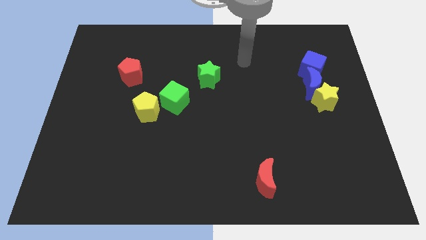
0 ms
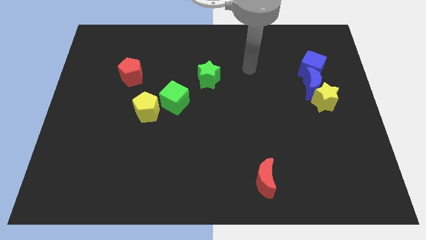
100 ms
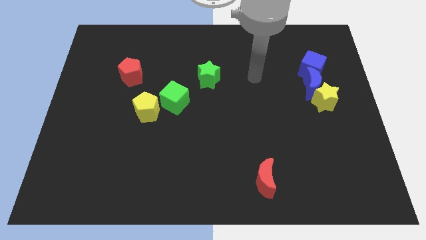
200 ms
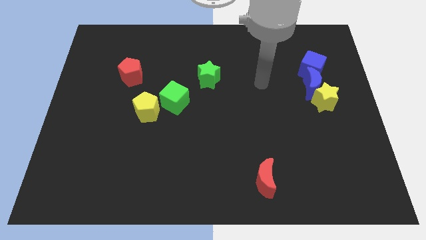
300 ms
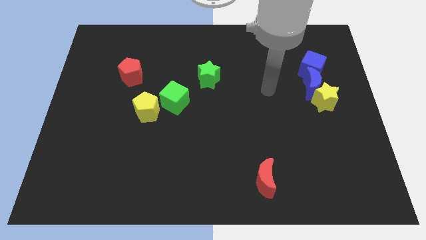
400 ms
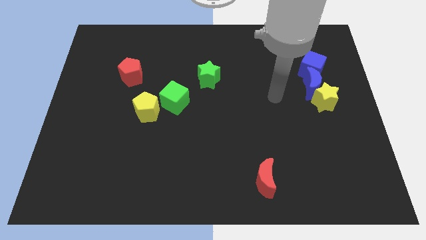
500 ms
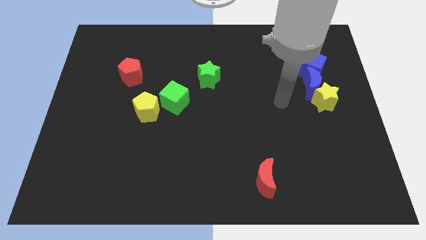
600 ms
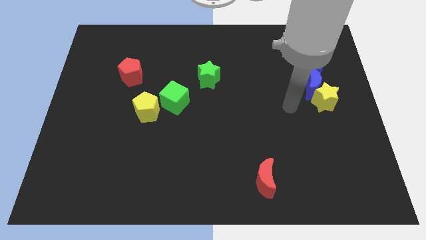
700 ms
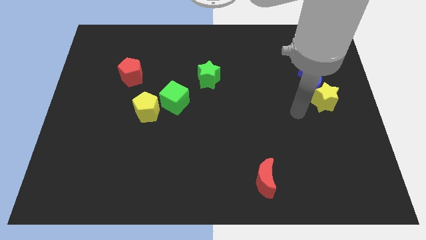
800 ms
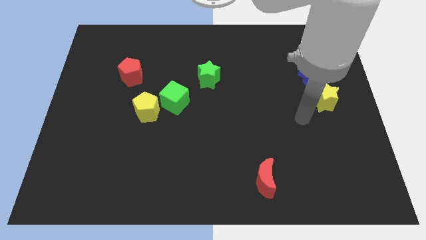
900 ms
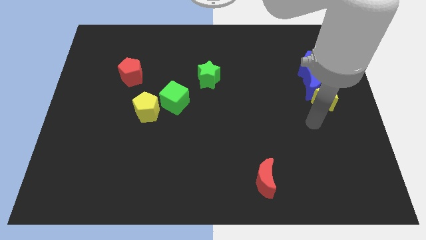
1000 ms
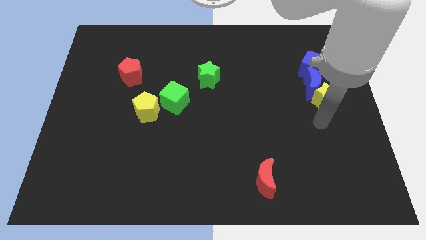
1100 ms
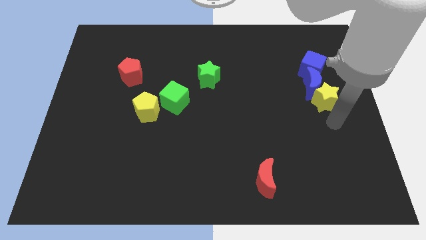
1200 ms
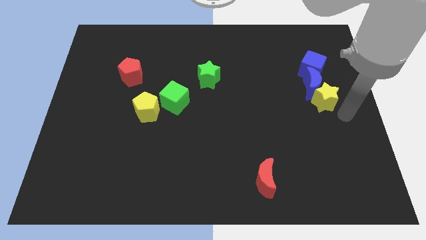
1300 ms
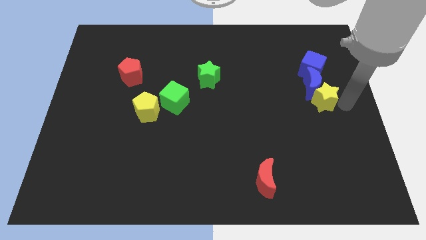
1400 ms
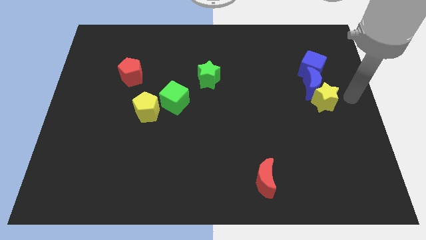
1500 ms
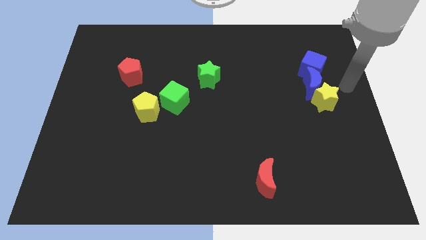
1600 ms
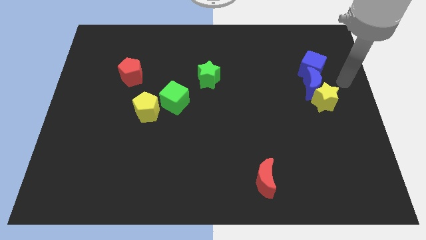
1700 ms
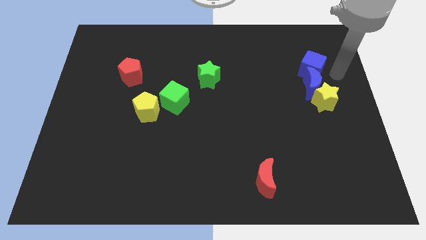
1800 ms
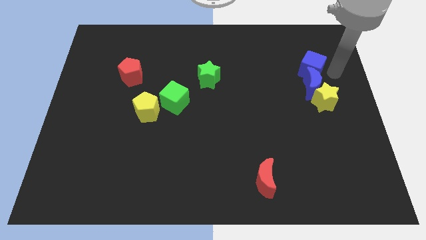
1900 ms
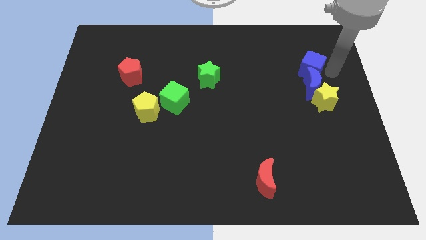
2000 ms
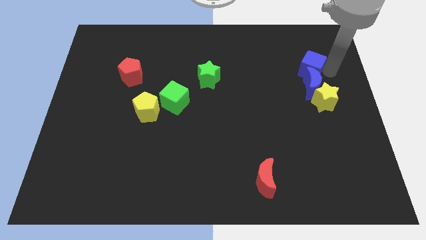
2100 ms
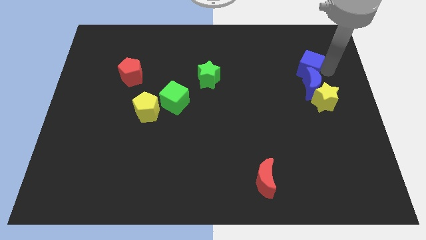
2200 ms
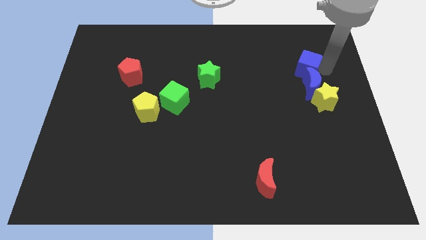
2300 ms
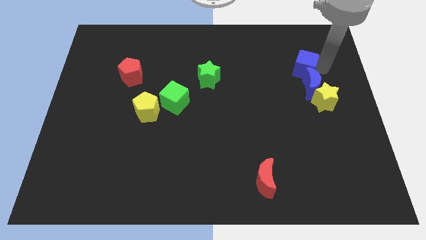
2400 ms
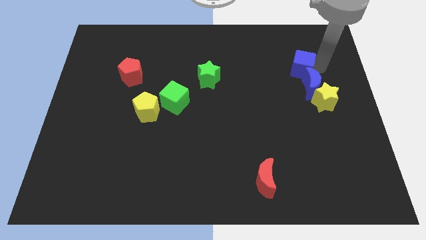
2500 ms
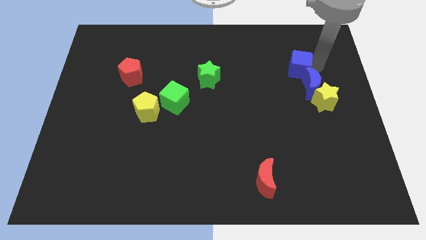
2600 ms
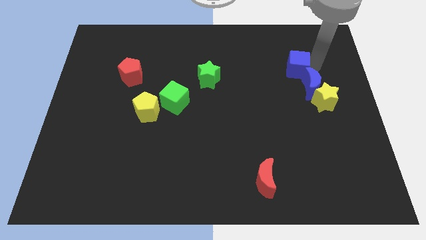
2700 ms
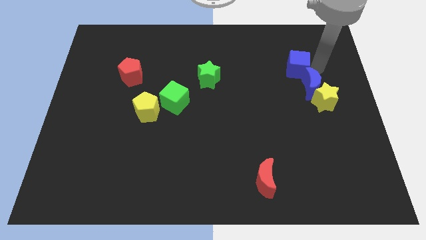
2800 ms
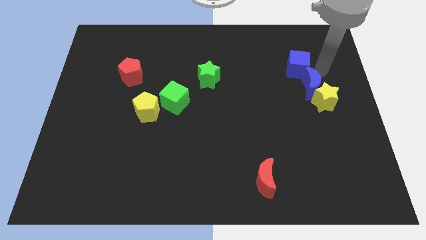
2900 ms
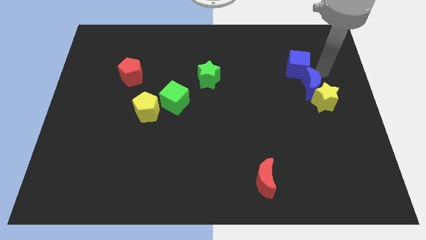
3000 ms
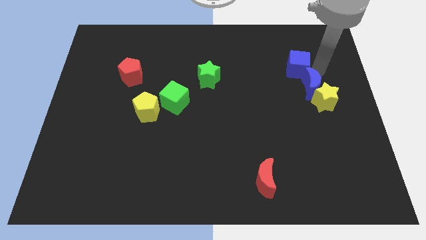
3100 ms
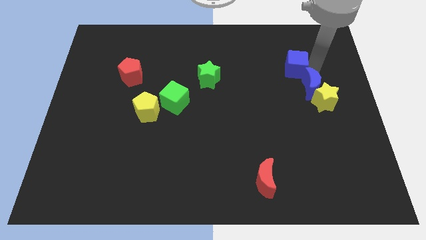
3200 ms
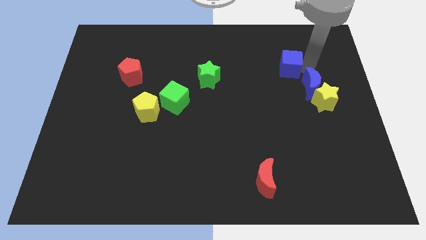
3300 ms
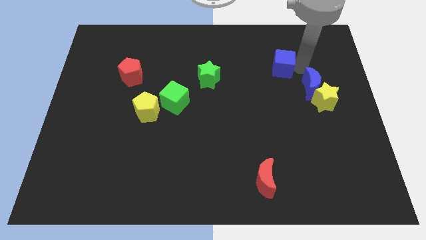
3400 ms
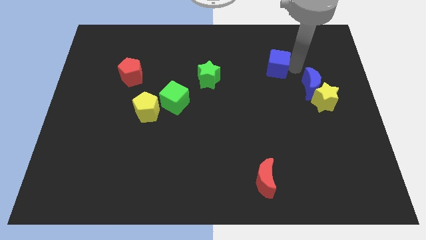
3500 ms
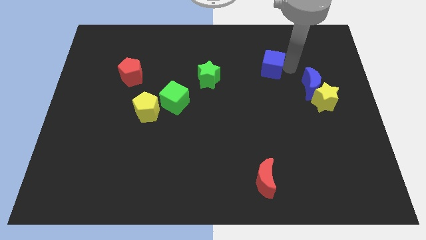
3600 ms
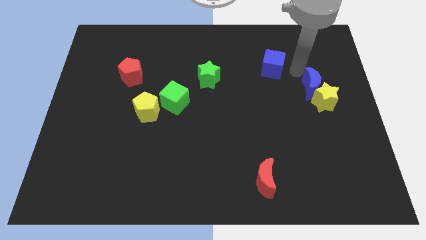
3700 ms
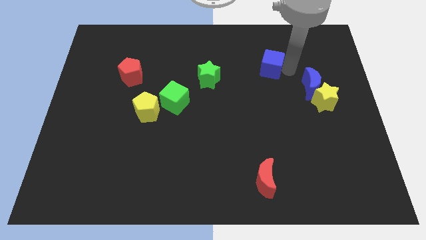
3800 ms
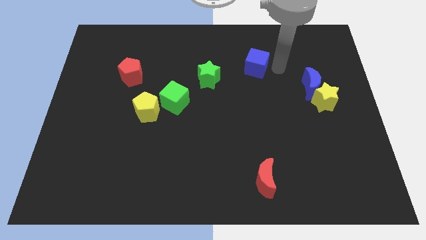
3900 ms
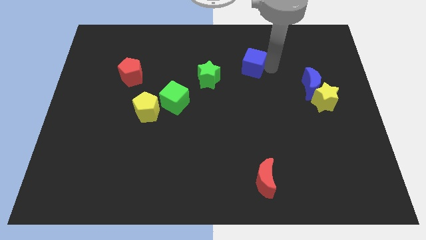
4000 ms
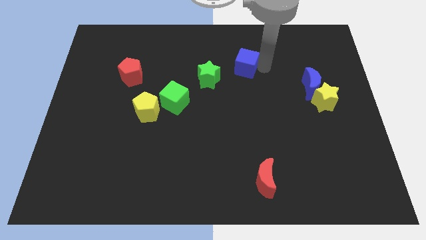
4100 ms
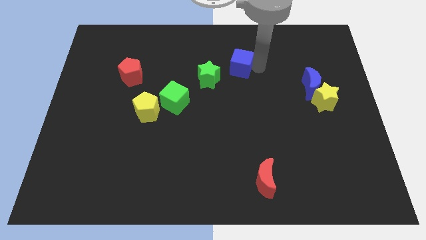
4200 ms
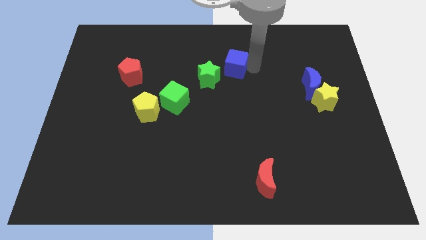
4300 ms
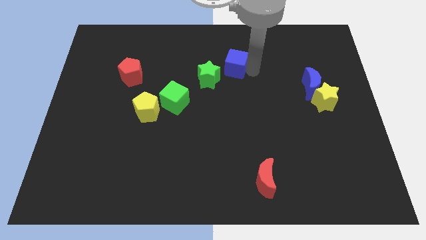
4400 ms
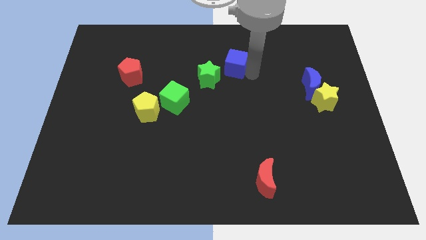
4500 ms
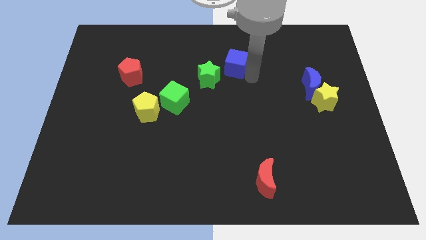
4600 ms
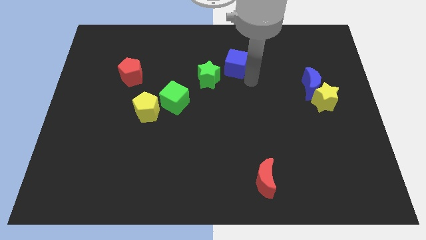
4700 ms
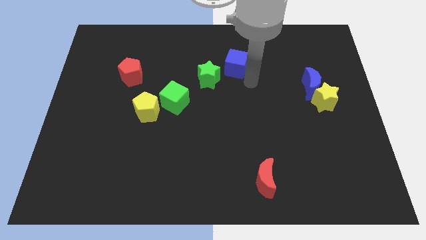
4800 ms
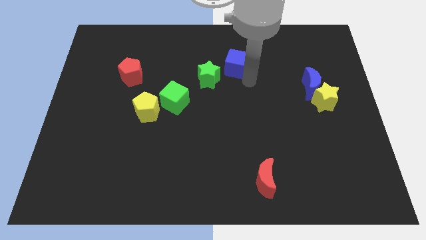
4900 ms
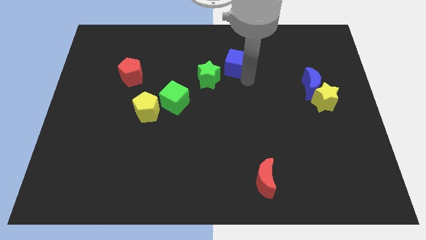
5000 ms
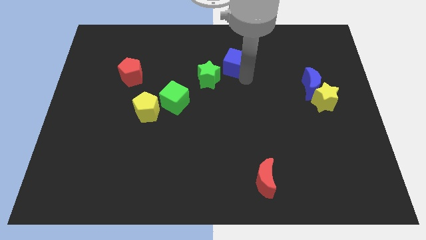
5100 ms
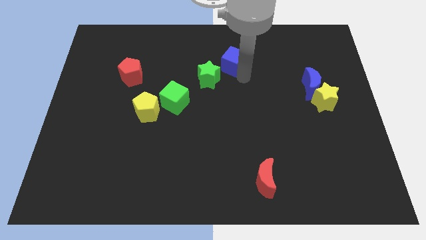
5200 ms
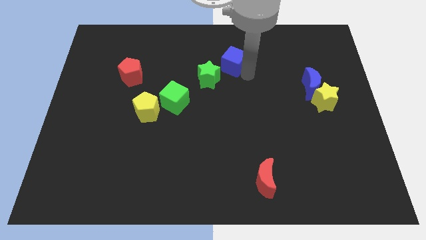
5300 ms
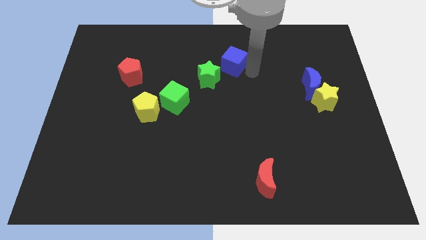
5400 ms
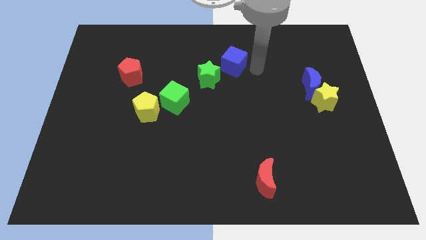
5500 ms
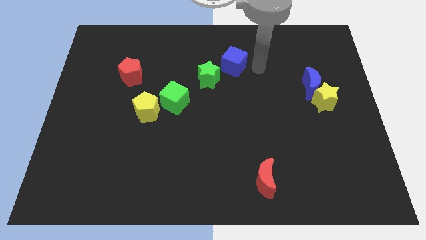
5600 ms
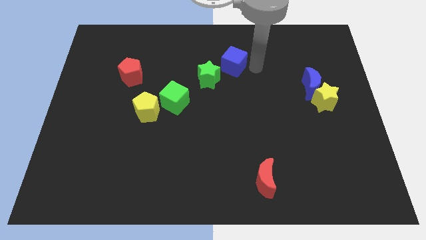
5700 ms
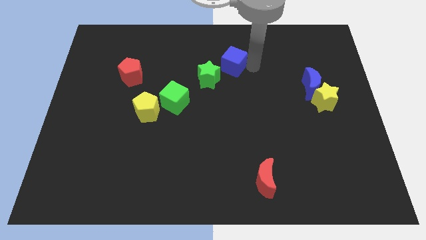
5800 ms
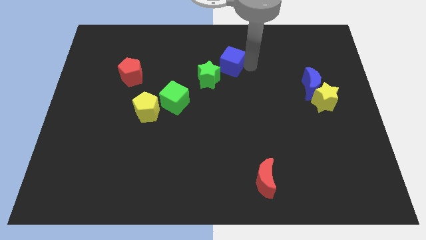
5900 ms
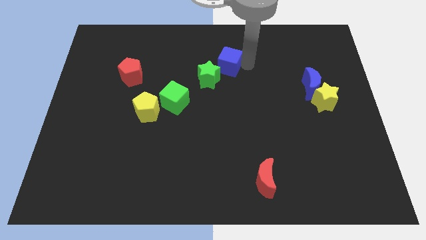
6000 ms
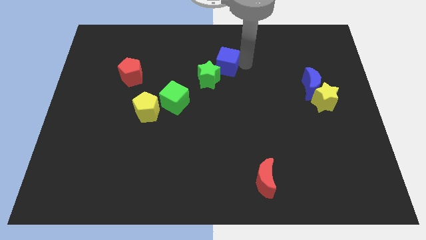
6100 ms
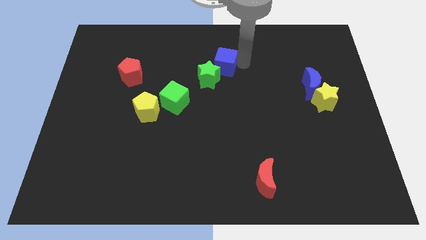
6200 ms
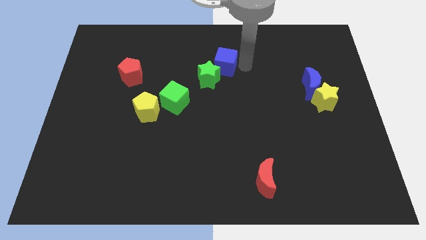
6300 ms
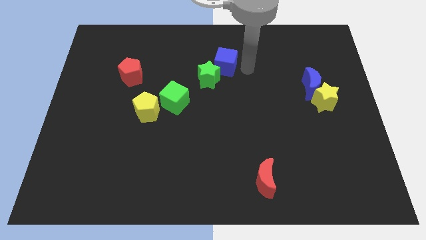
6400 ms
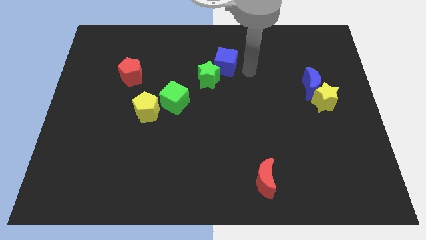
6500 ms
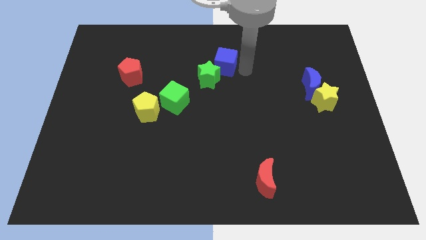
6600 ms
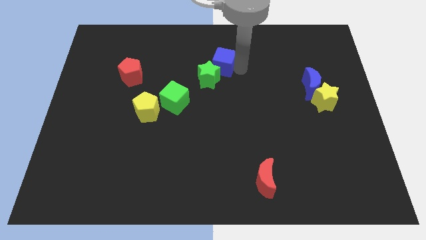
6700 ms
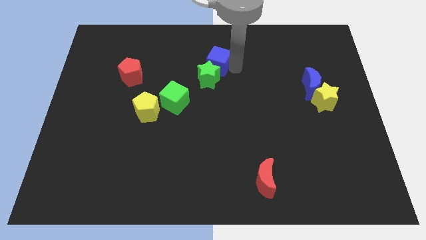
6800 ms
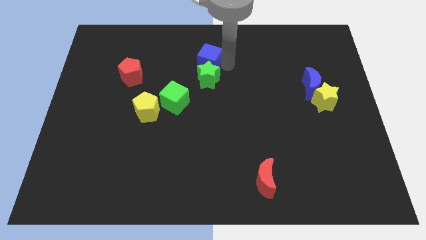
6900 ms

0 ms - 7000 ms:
put the blue cube diagonally up and to the left of the green star

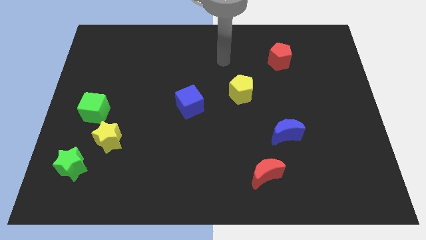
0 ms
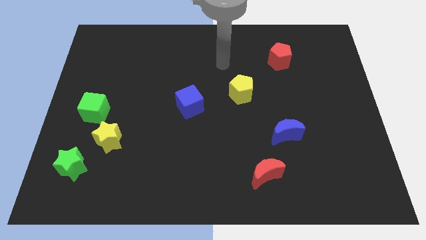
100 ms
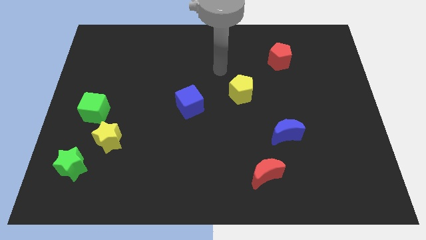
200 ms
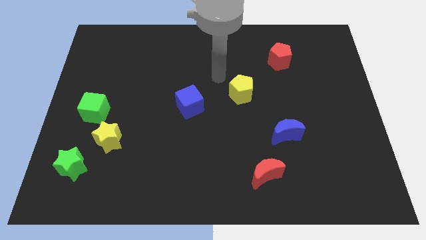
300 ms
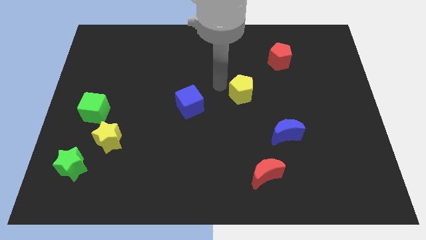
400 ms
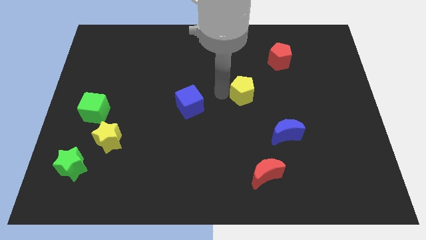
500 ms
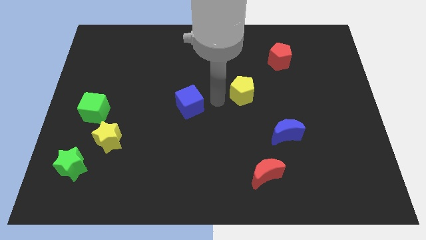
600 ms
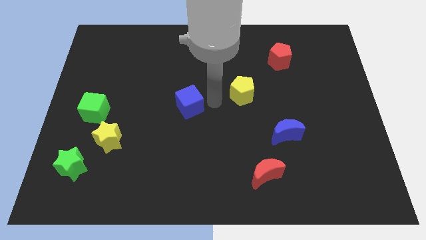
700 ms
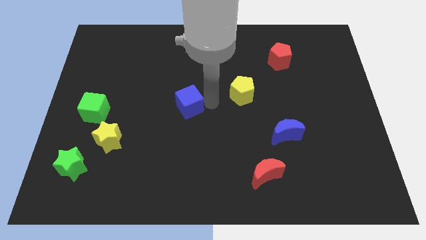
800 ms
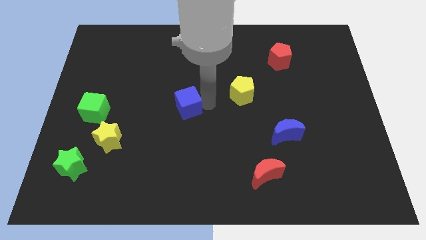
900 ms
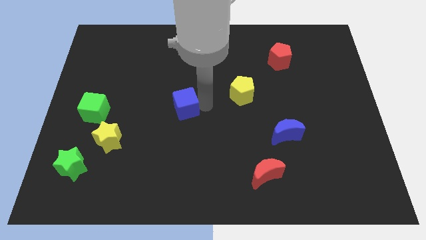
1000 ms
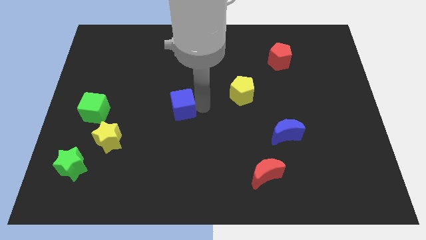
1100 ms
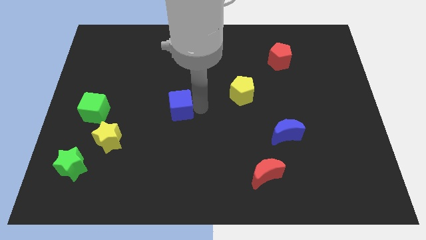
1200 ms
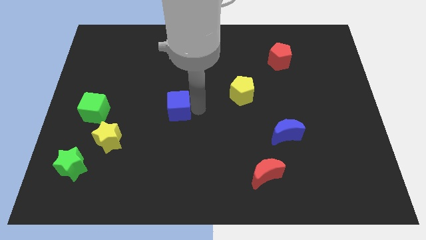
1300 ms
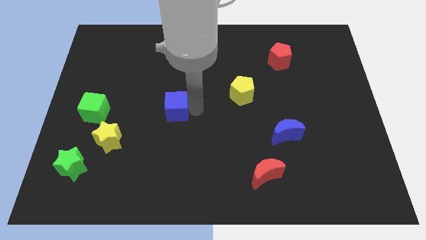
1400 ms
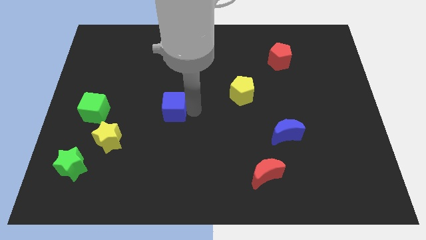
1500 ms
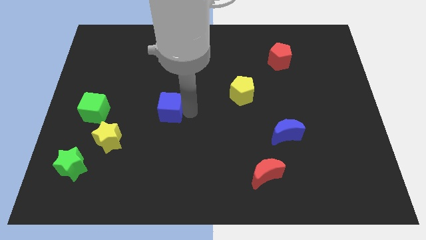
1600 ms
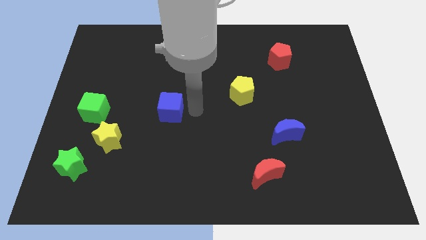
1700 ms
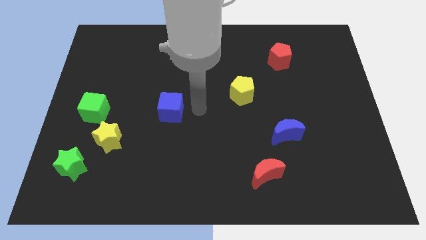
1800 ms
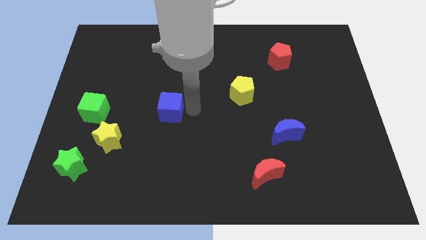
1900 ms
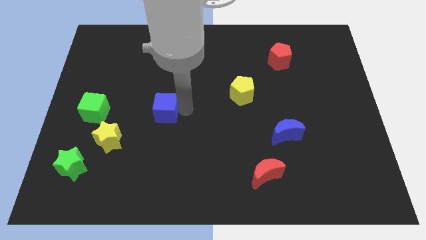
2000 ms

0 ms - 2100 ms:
move the blue cube to the right of the green cube
